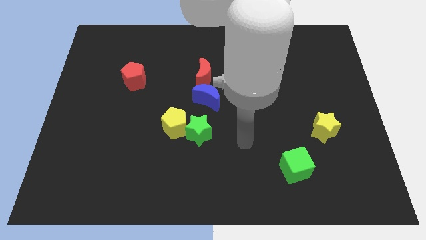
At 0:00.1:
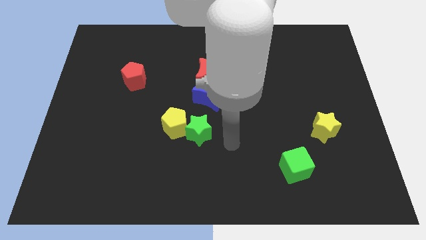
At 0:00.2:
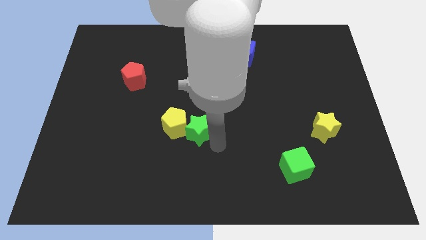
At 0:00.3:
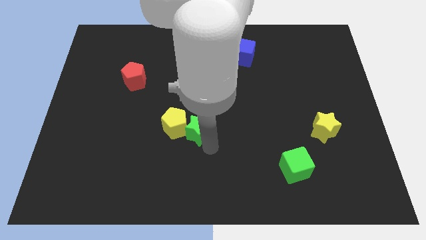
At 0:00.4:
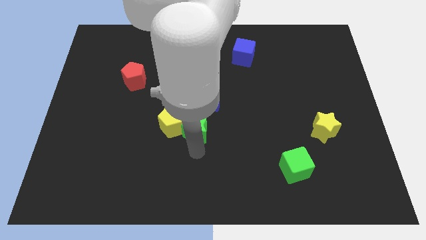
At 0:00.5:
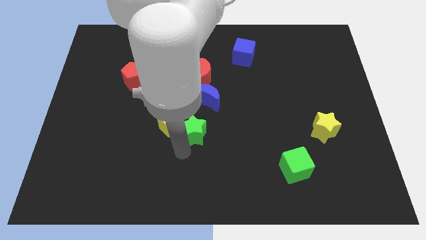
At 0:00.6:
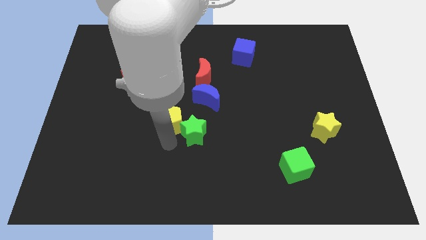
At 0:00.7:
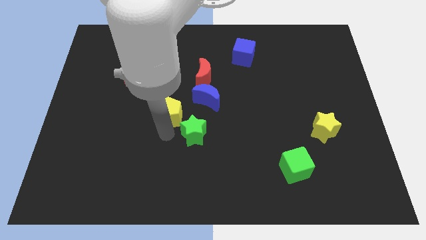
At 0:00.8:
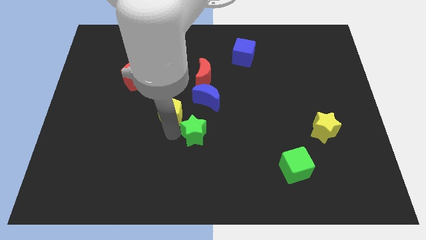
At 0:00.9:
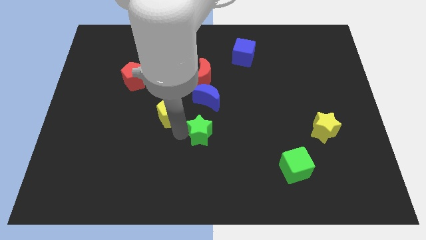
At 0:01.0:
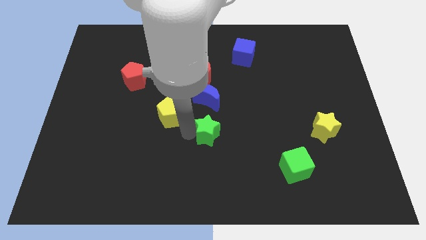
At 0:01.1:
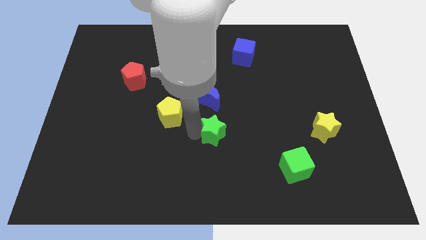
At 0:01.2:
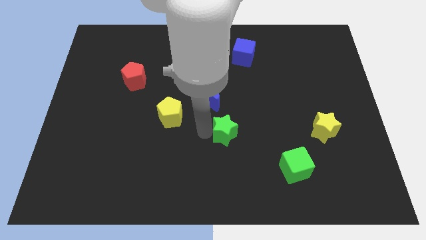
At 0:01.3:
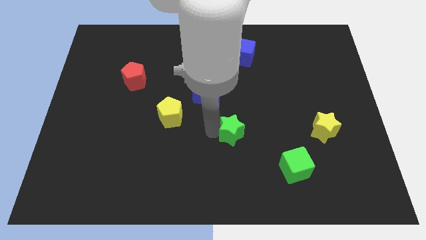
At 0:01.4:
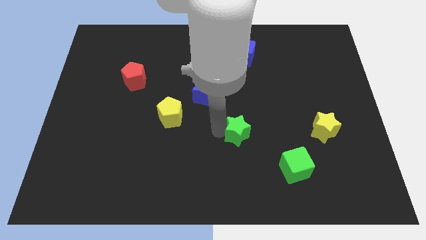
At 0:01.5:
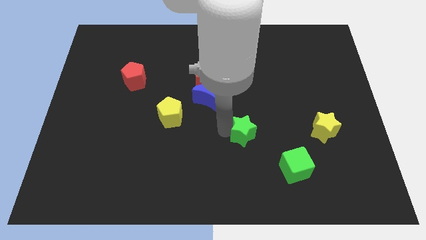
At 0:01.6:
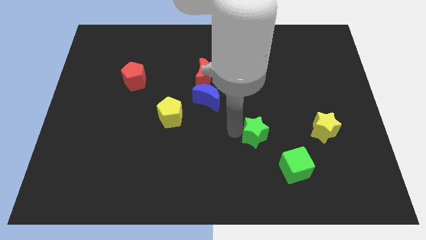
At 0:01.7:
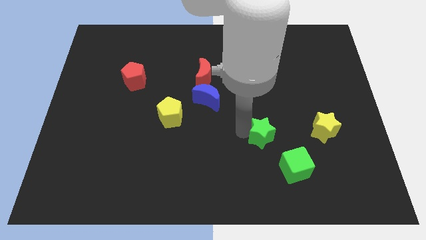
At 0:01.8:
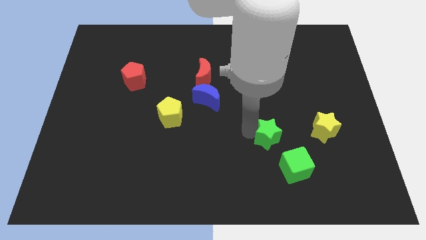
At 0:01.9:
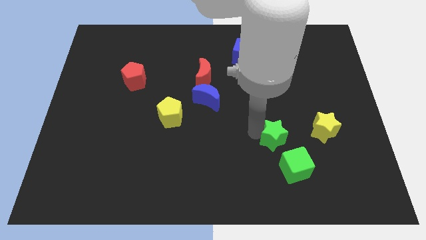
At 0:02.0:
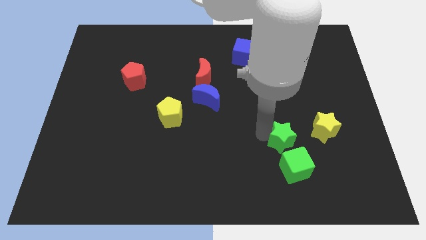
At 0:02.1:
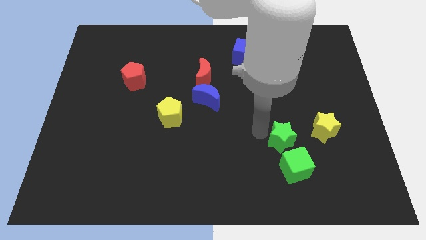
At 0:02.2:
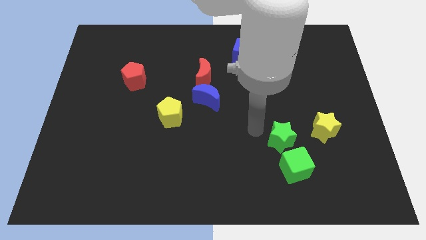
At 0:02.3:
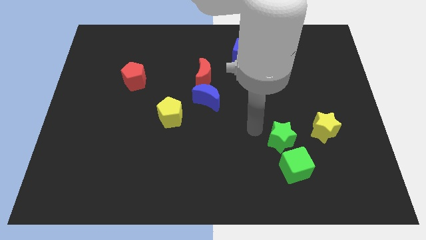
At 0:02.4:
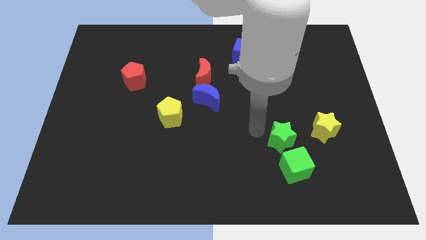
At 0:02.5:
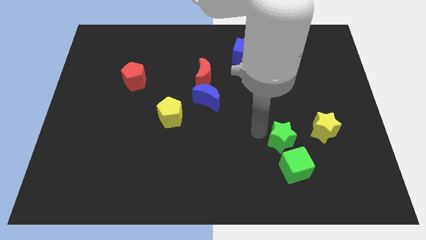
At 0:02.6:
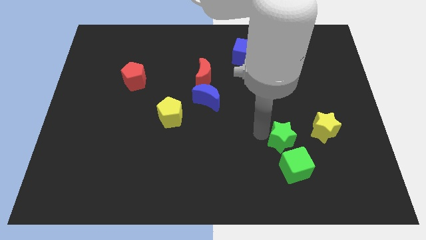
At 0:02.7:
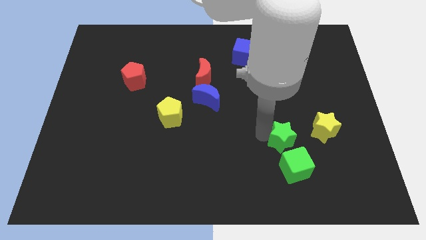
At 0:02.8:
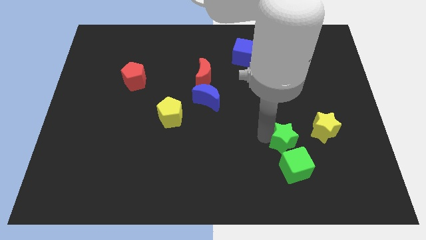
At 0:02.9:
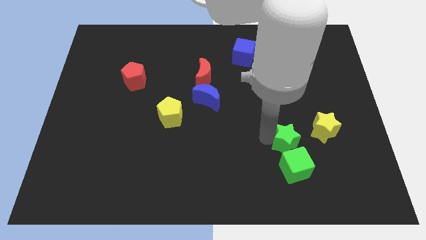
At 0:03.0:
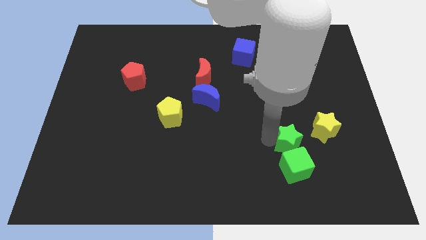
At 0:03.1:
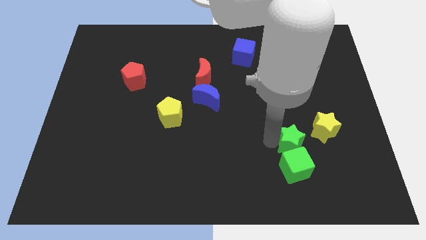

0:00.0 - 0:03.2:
slide the green star right

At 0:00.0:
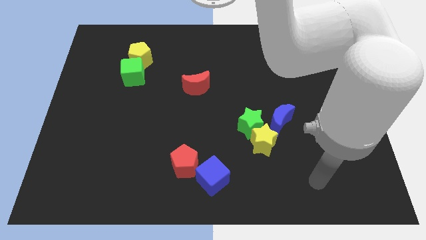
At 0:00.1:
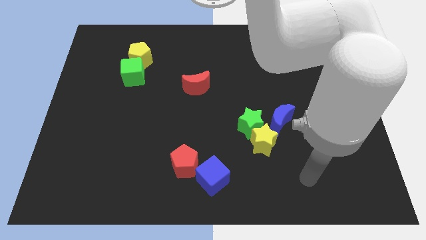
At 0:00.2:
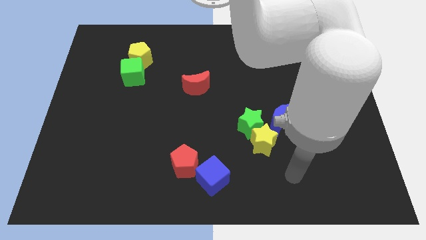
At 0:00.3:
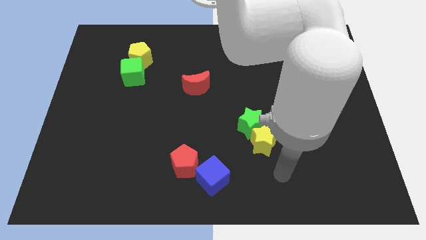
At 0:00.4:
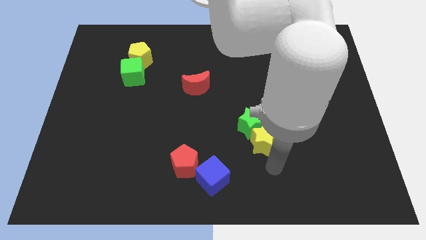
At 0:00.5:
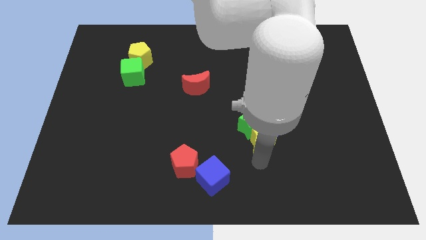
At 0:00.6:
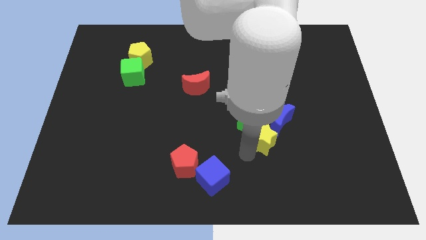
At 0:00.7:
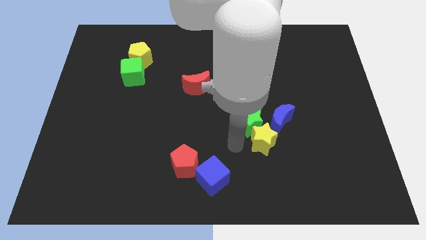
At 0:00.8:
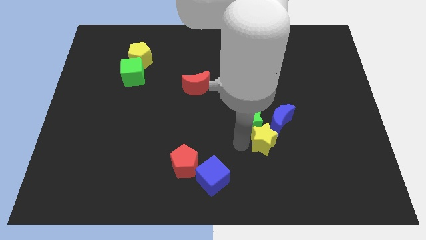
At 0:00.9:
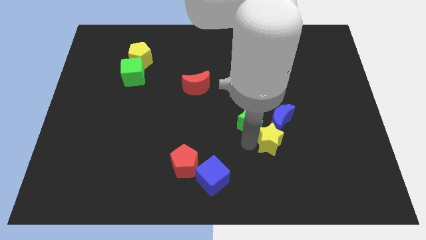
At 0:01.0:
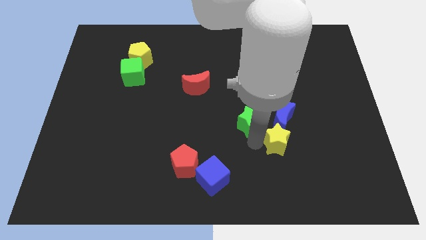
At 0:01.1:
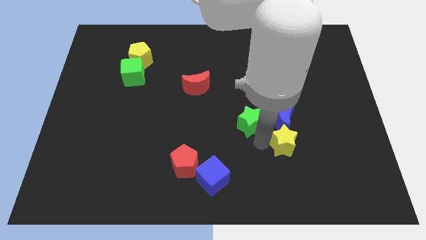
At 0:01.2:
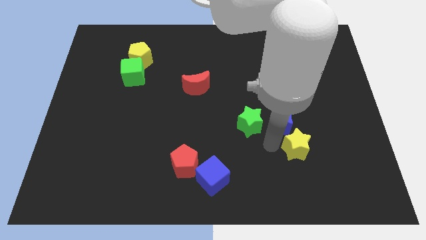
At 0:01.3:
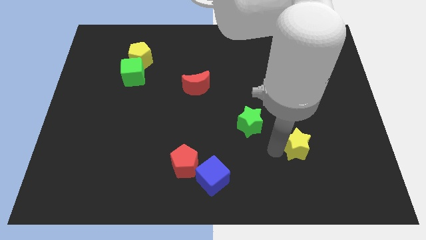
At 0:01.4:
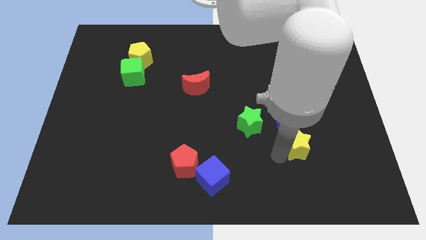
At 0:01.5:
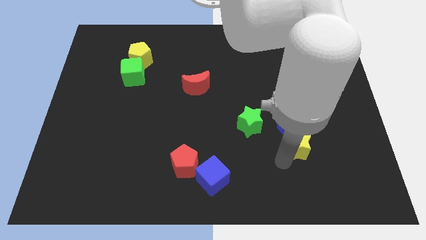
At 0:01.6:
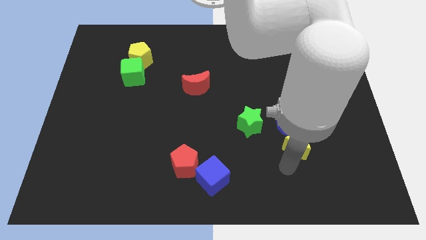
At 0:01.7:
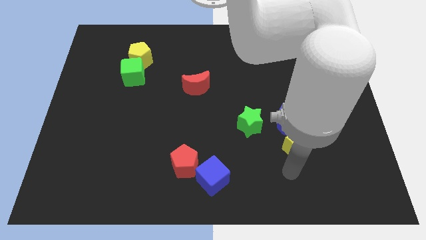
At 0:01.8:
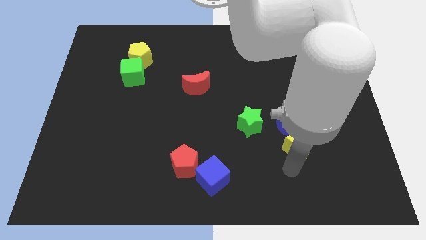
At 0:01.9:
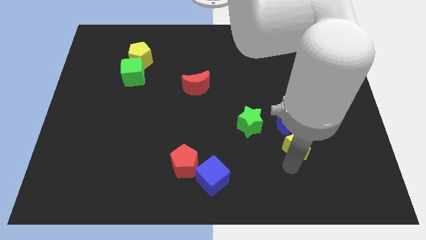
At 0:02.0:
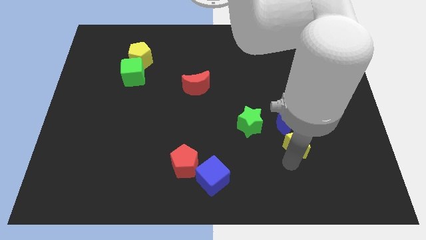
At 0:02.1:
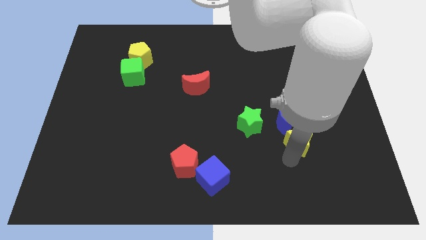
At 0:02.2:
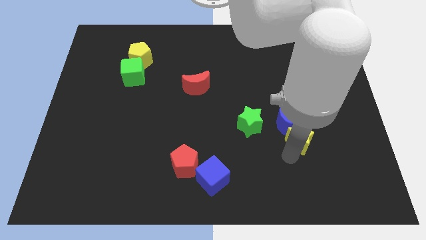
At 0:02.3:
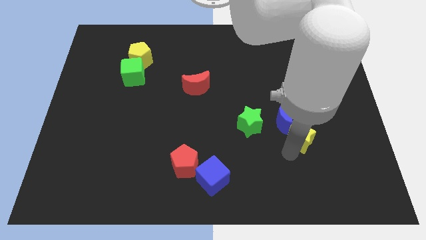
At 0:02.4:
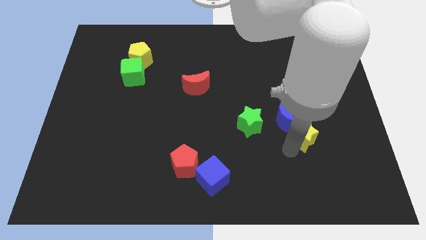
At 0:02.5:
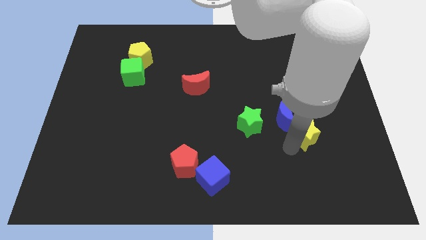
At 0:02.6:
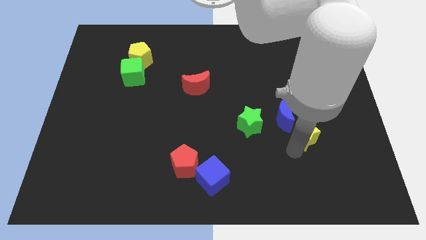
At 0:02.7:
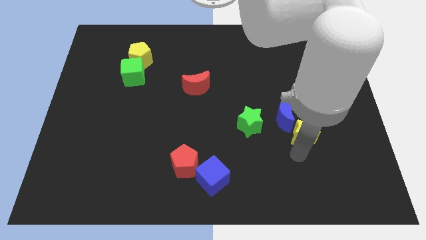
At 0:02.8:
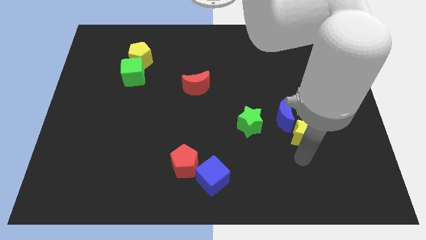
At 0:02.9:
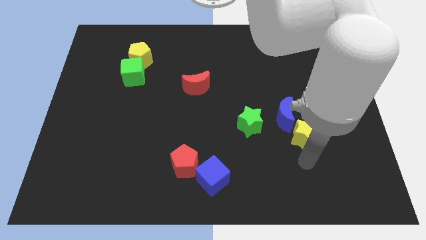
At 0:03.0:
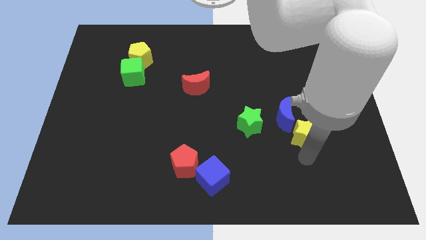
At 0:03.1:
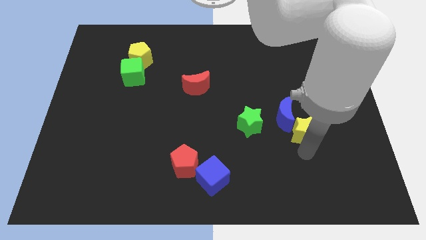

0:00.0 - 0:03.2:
push the yellow star somewhat diagonally up and right

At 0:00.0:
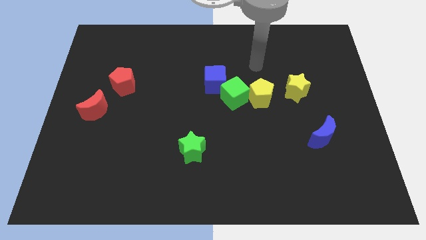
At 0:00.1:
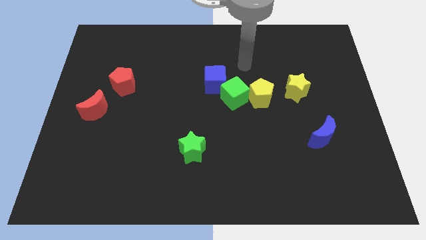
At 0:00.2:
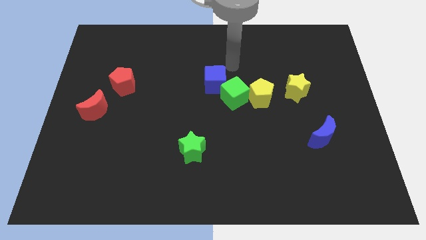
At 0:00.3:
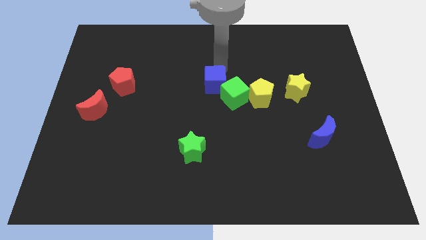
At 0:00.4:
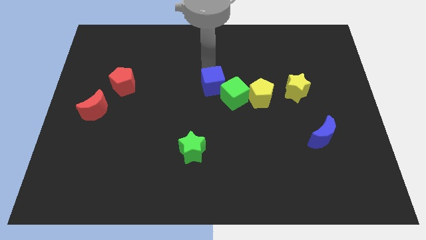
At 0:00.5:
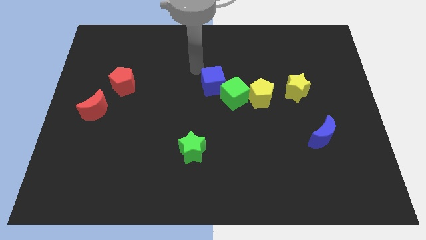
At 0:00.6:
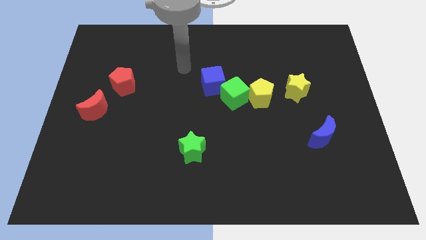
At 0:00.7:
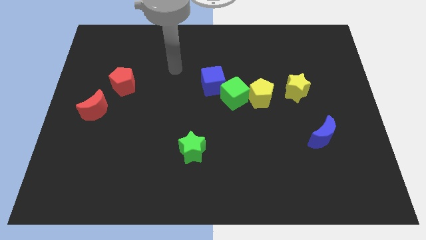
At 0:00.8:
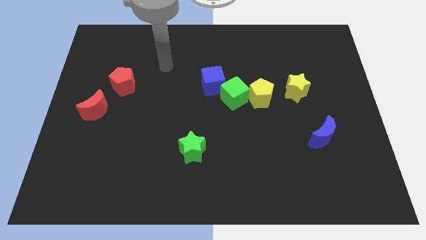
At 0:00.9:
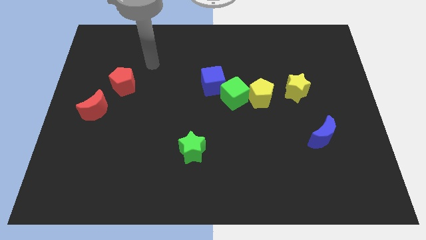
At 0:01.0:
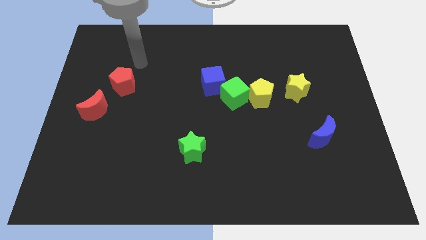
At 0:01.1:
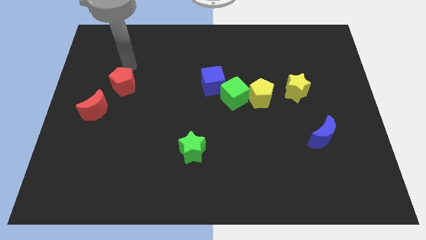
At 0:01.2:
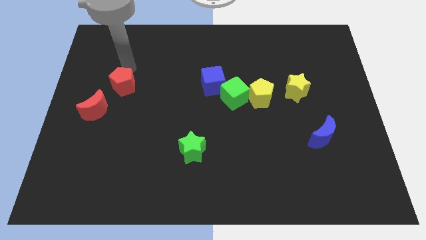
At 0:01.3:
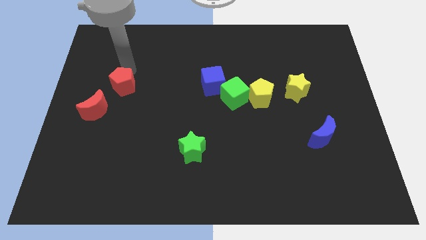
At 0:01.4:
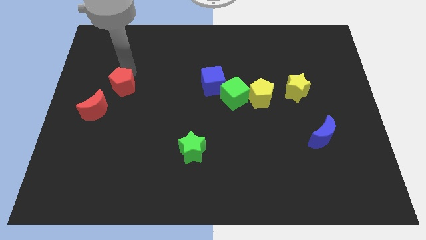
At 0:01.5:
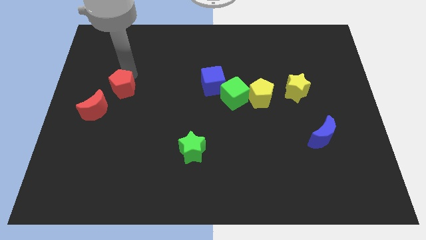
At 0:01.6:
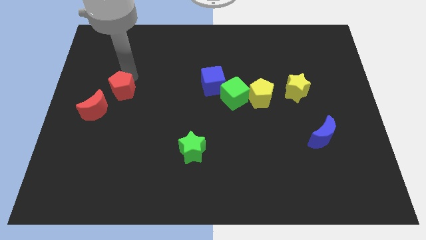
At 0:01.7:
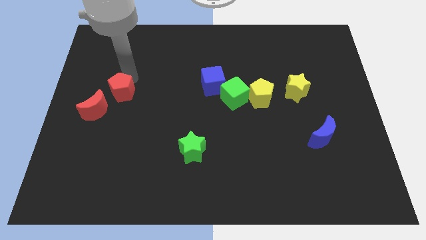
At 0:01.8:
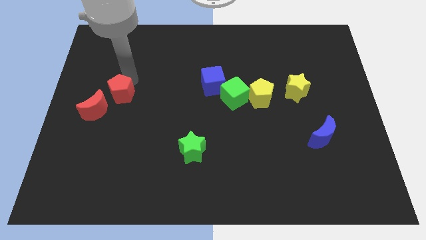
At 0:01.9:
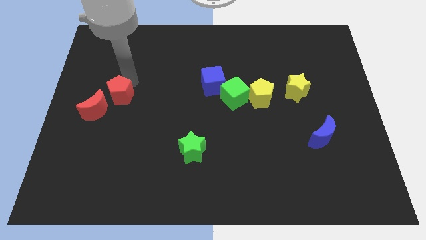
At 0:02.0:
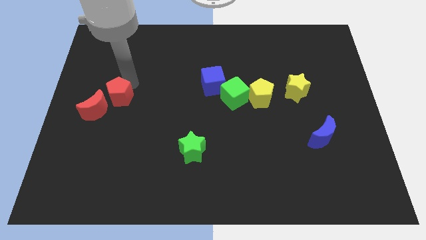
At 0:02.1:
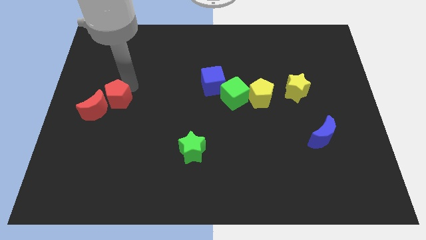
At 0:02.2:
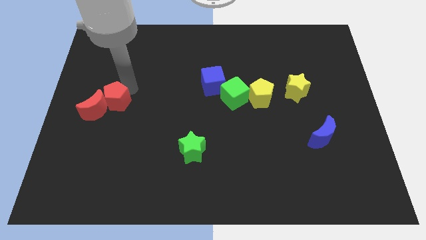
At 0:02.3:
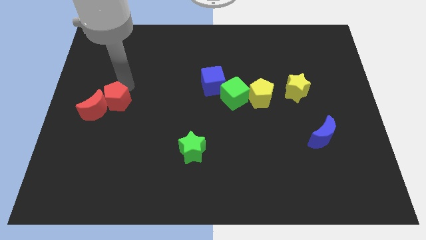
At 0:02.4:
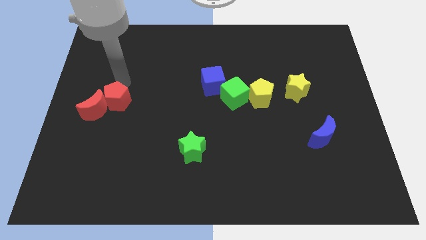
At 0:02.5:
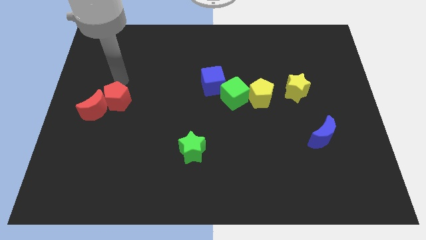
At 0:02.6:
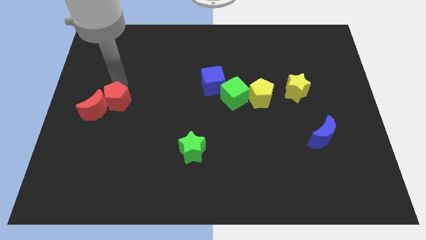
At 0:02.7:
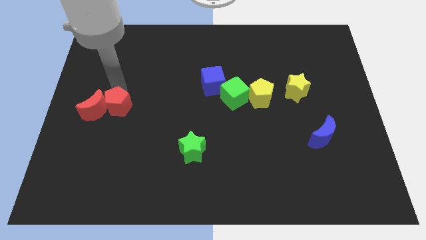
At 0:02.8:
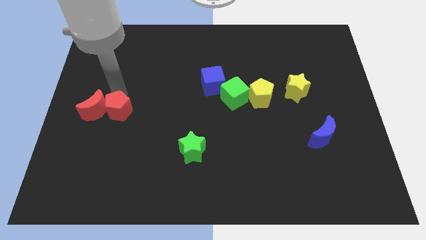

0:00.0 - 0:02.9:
slide the red pentagon down somewhat
